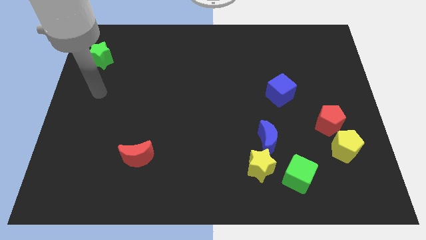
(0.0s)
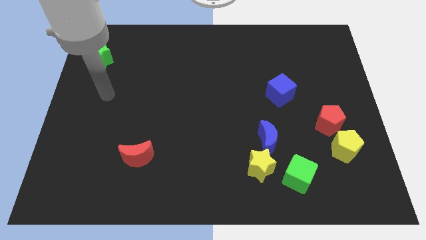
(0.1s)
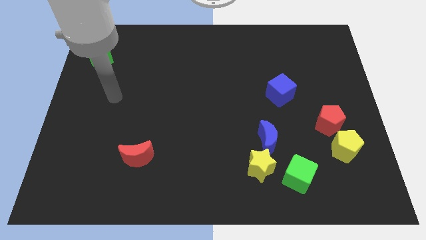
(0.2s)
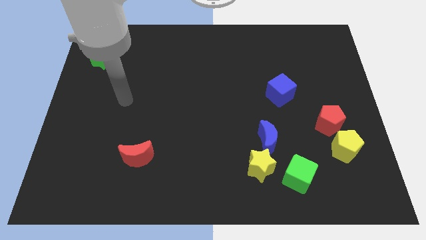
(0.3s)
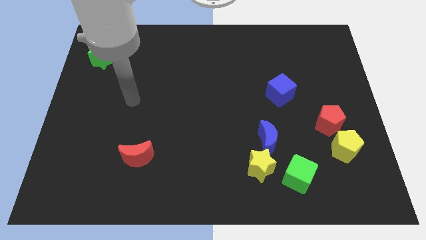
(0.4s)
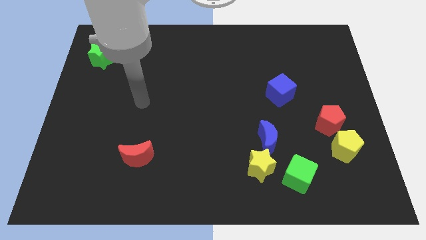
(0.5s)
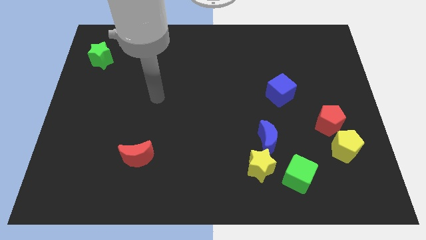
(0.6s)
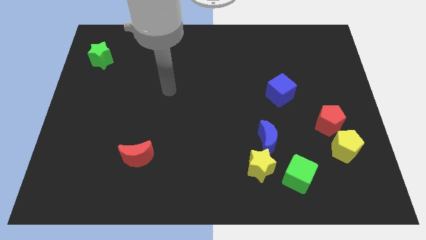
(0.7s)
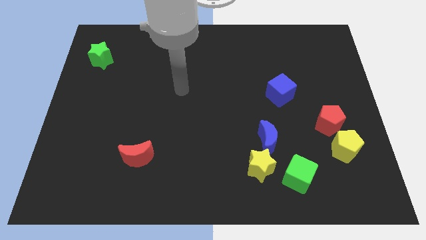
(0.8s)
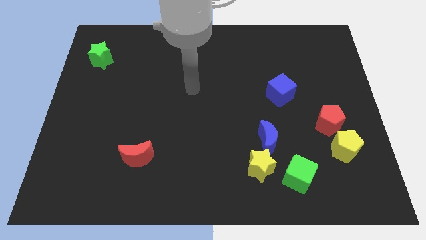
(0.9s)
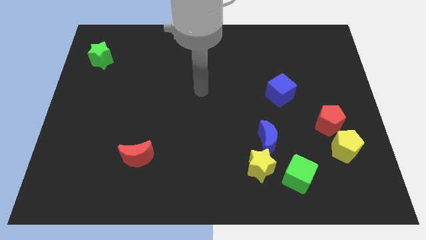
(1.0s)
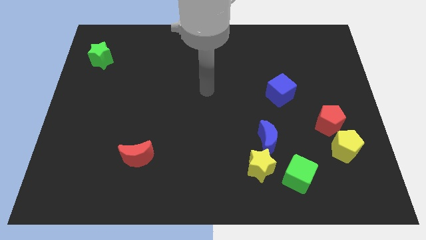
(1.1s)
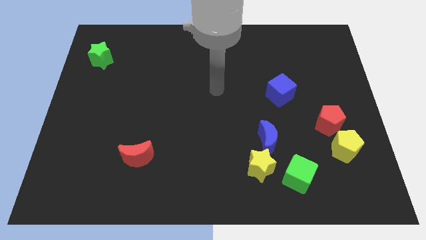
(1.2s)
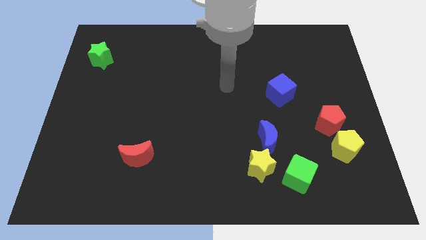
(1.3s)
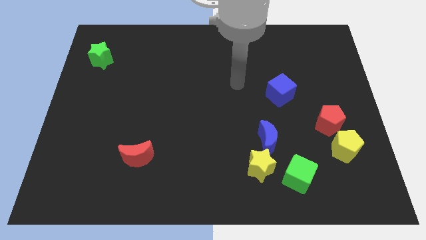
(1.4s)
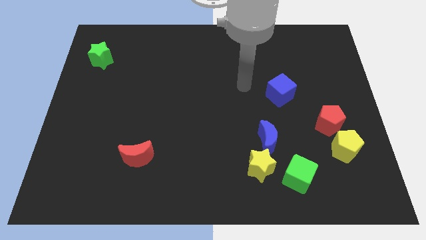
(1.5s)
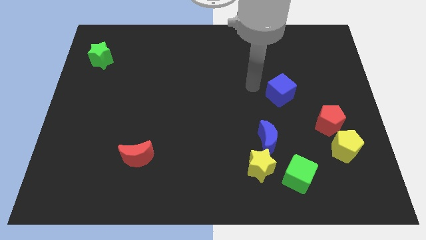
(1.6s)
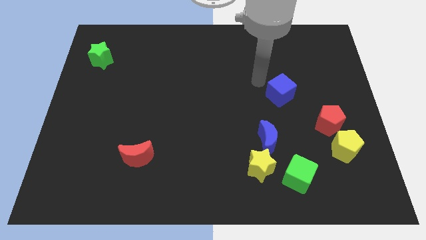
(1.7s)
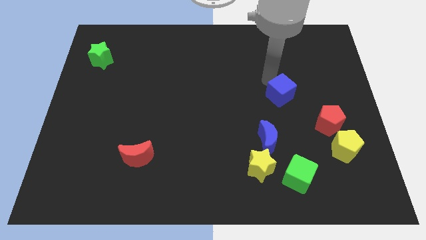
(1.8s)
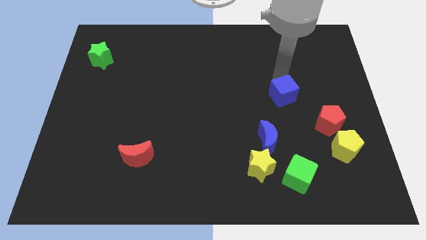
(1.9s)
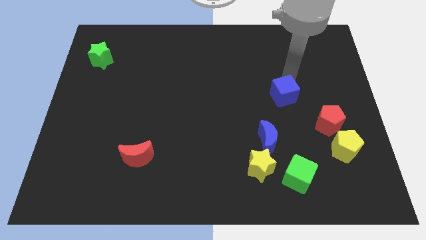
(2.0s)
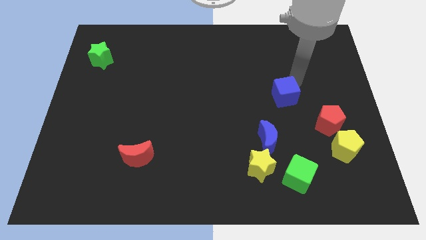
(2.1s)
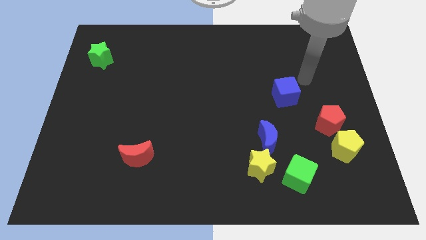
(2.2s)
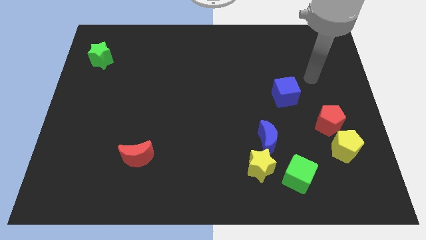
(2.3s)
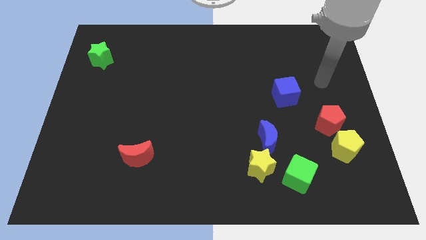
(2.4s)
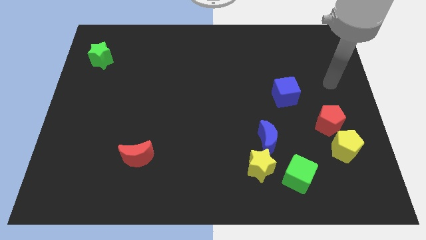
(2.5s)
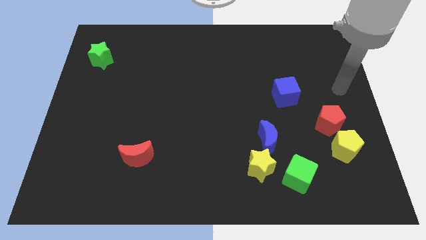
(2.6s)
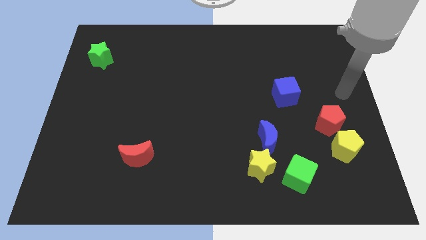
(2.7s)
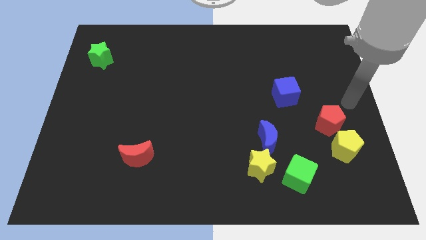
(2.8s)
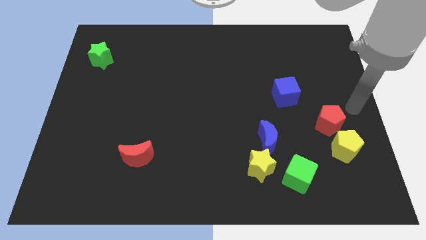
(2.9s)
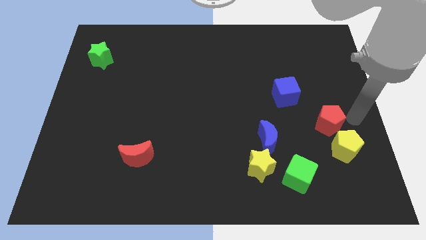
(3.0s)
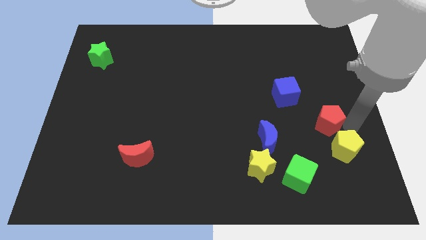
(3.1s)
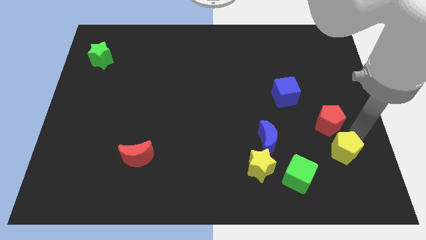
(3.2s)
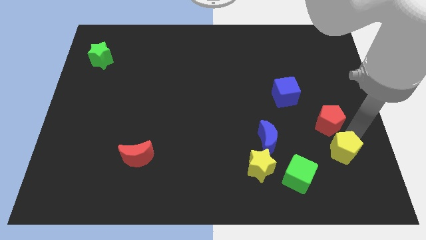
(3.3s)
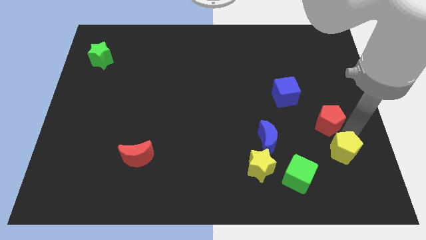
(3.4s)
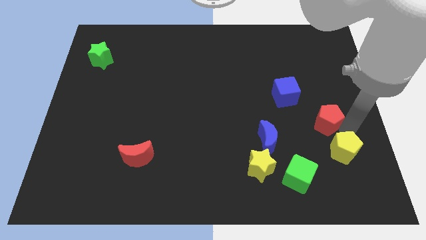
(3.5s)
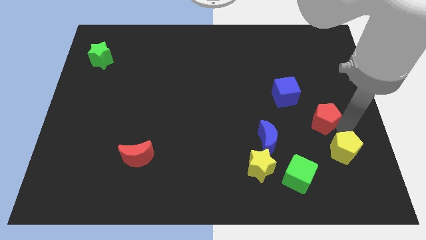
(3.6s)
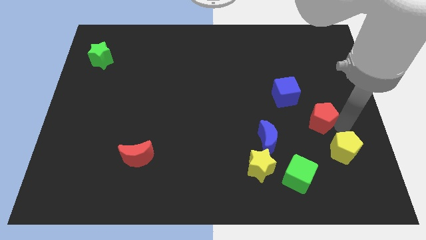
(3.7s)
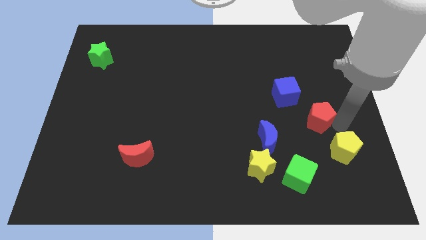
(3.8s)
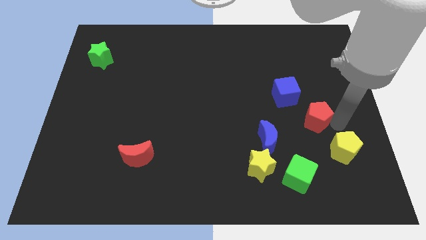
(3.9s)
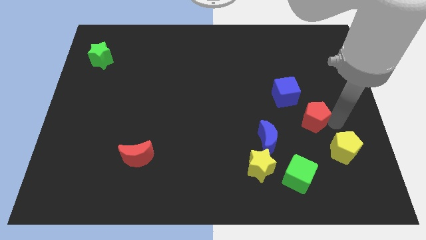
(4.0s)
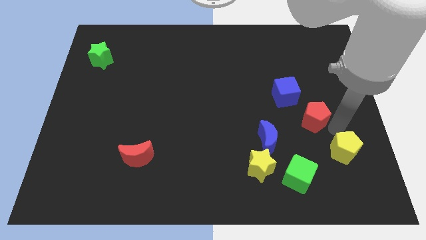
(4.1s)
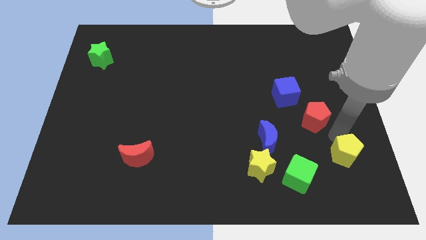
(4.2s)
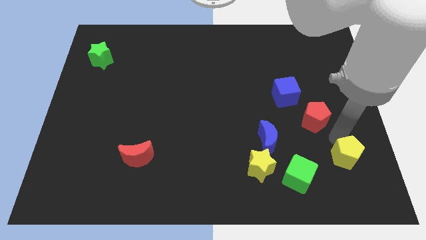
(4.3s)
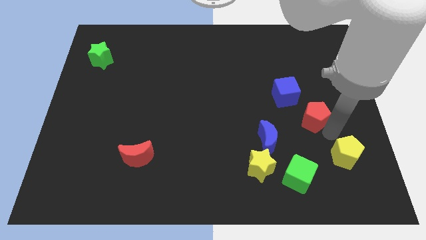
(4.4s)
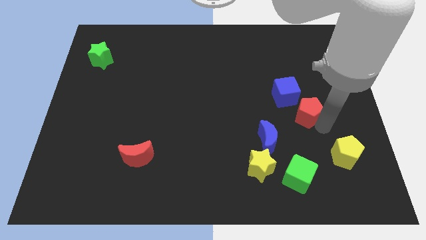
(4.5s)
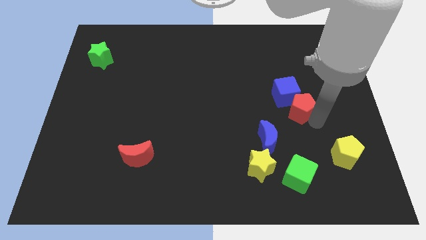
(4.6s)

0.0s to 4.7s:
slide the red pentagon to the blue cube

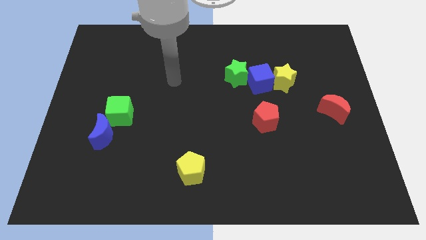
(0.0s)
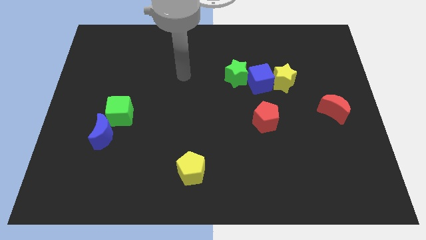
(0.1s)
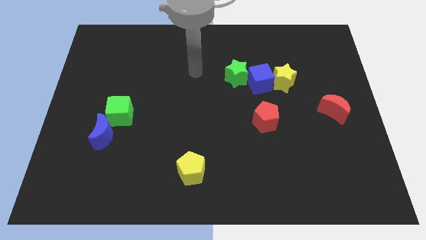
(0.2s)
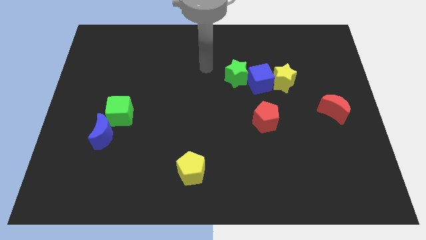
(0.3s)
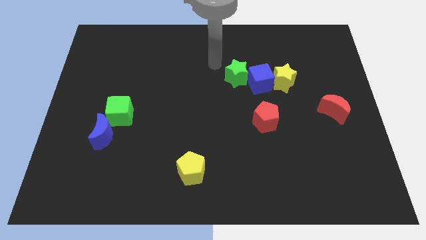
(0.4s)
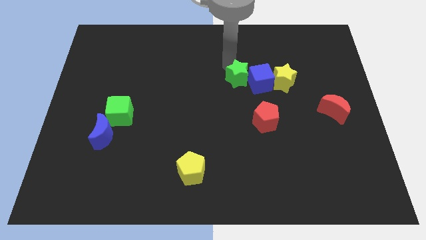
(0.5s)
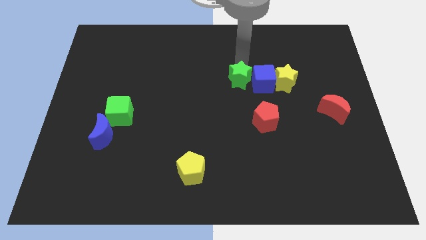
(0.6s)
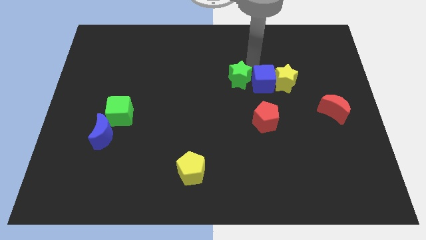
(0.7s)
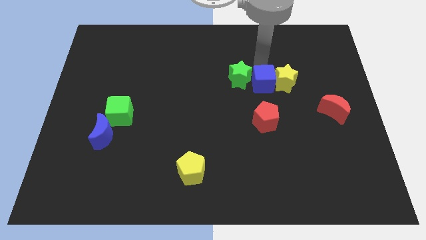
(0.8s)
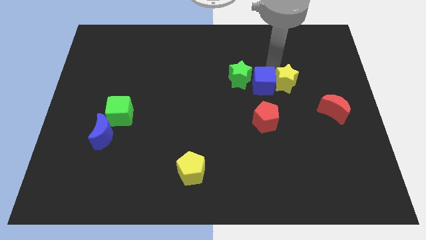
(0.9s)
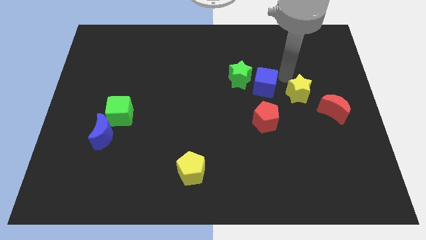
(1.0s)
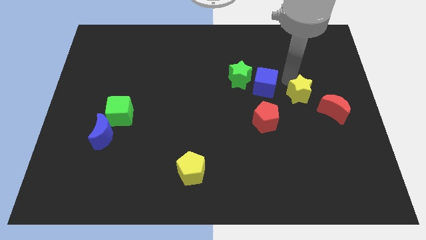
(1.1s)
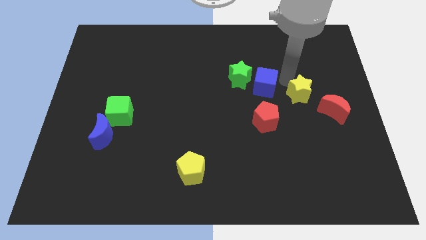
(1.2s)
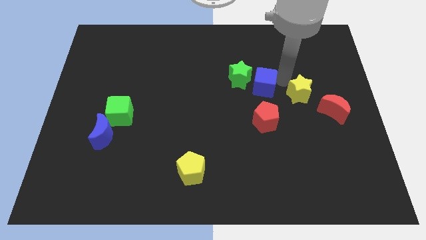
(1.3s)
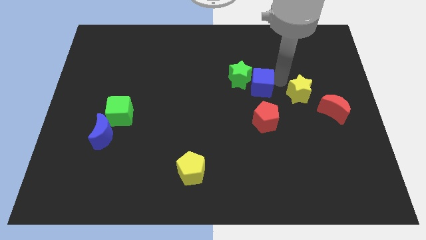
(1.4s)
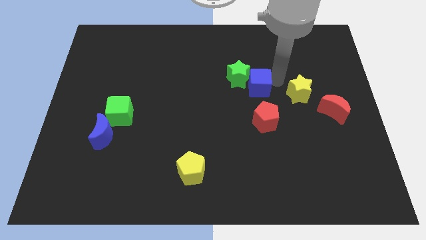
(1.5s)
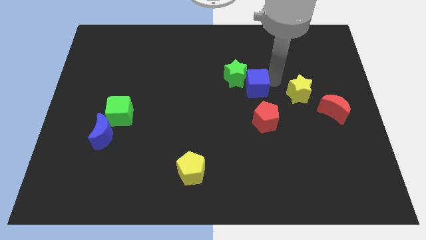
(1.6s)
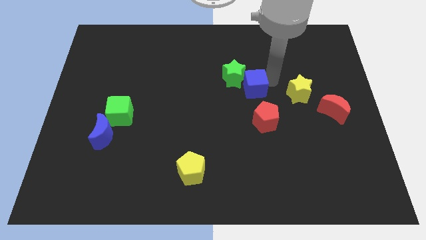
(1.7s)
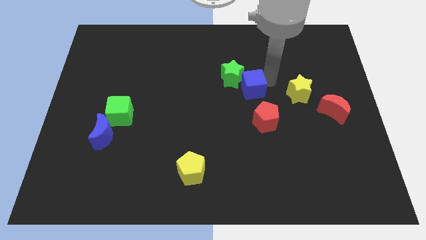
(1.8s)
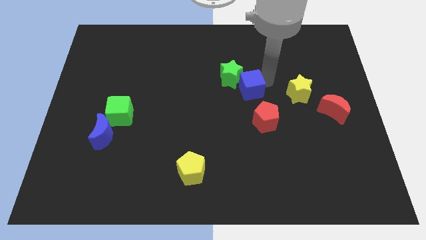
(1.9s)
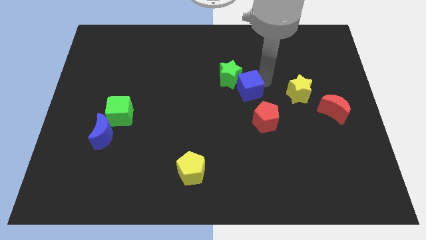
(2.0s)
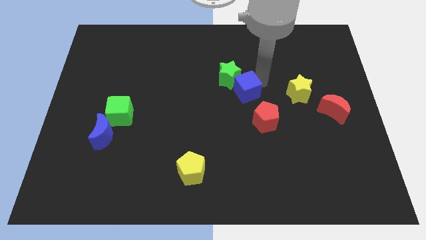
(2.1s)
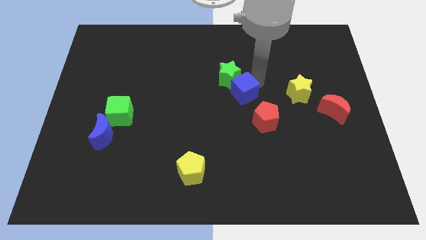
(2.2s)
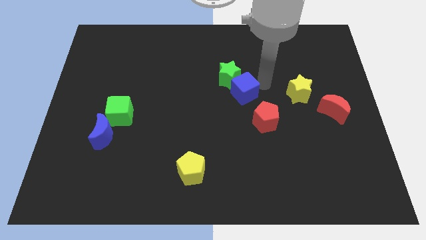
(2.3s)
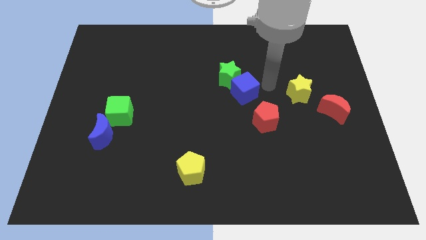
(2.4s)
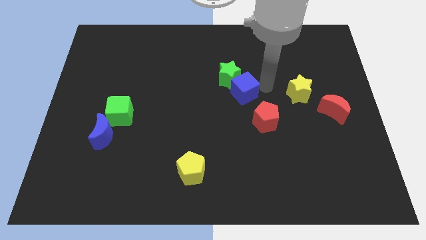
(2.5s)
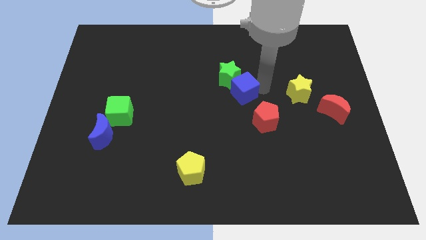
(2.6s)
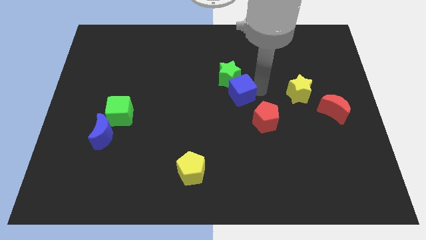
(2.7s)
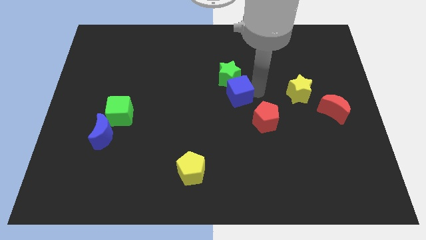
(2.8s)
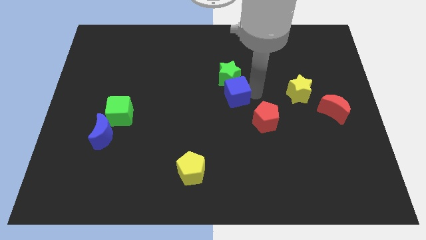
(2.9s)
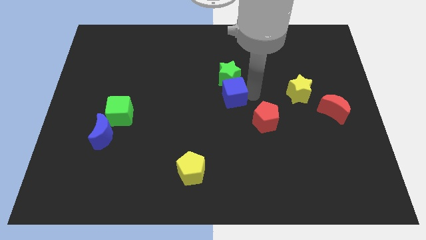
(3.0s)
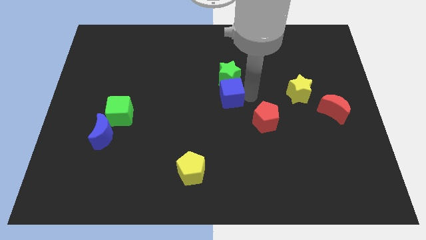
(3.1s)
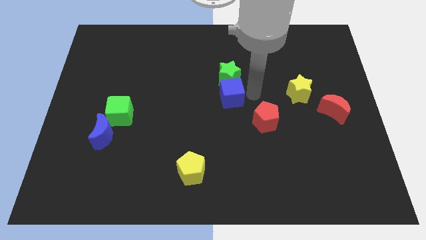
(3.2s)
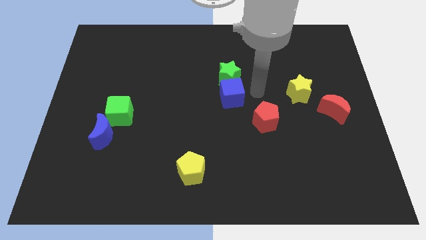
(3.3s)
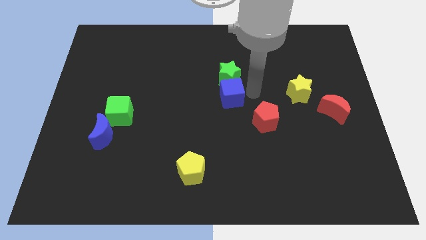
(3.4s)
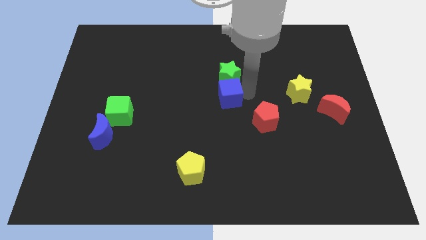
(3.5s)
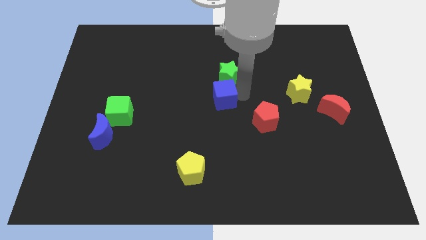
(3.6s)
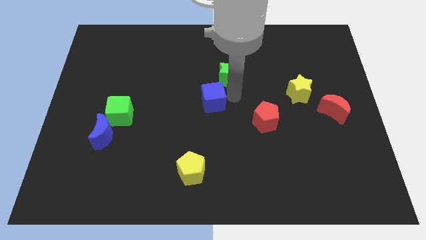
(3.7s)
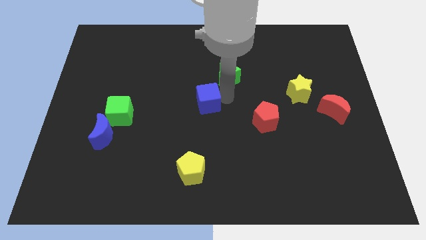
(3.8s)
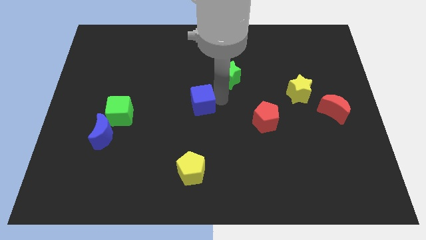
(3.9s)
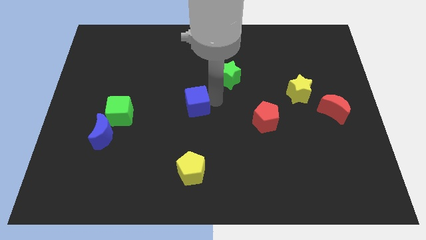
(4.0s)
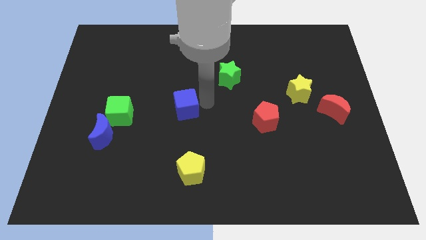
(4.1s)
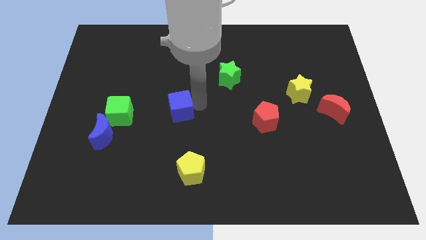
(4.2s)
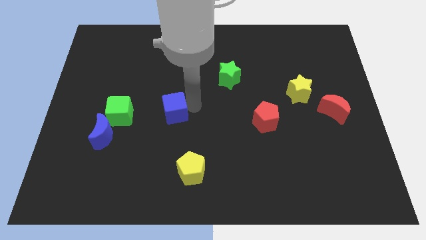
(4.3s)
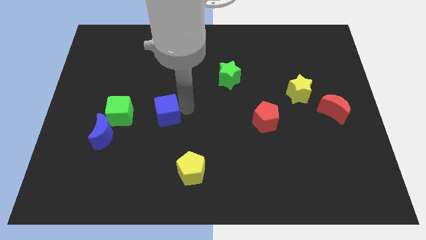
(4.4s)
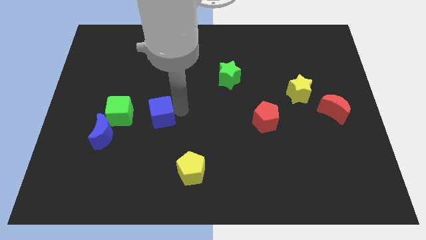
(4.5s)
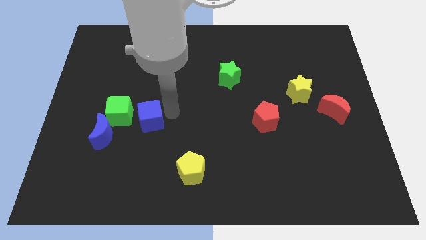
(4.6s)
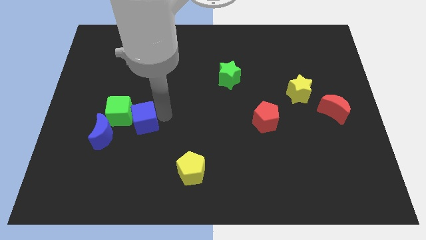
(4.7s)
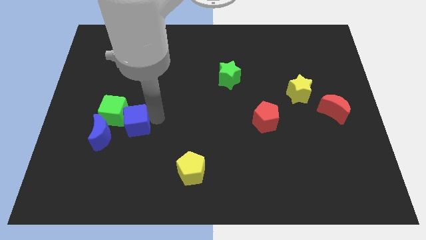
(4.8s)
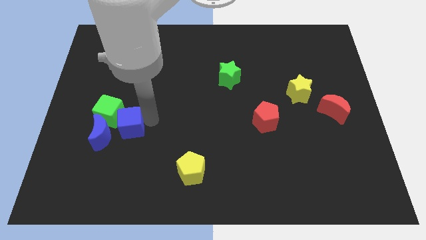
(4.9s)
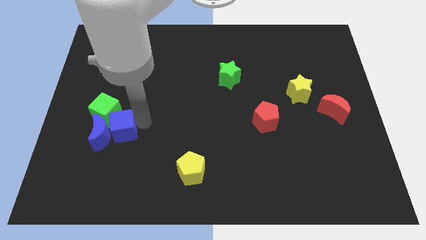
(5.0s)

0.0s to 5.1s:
move the blue cube close to the blue moon
